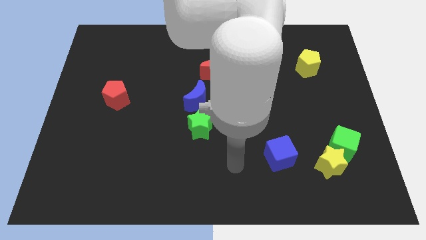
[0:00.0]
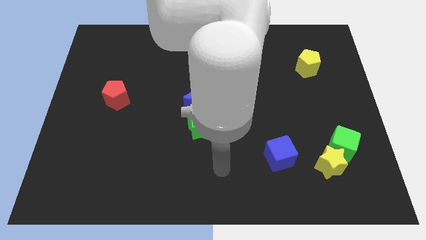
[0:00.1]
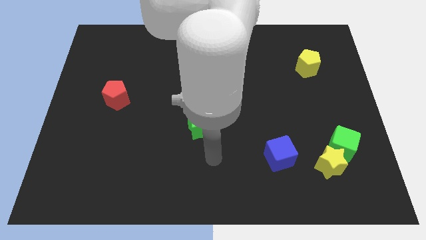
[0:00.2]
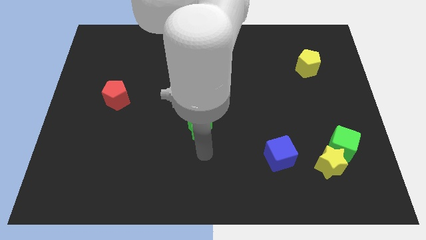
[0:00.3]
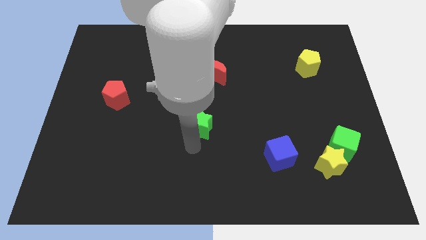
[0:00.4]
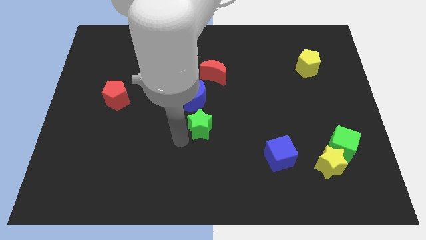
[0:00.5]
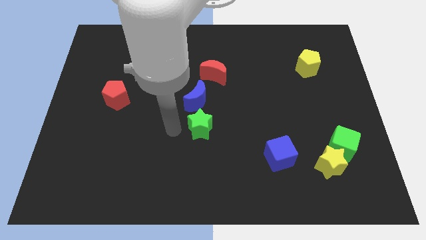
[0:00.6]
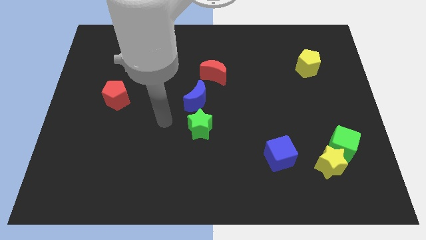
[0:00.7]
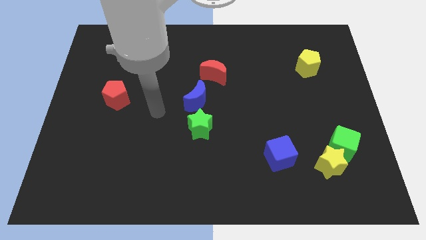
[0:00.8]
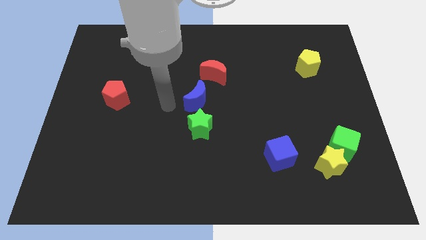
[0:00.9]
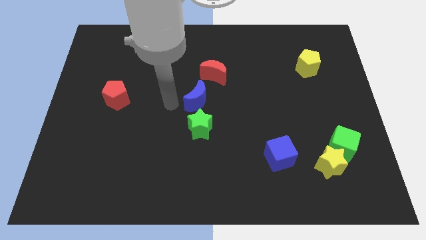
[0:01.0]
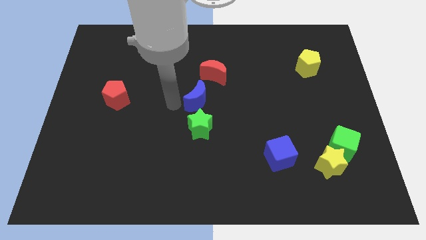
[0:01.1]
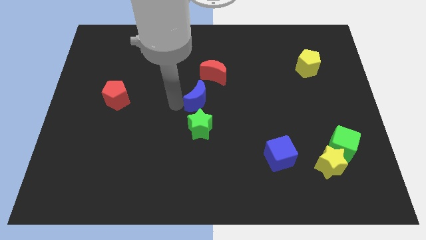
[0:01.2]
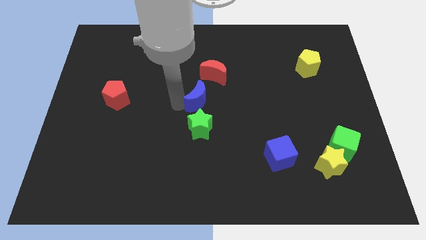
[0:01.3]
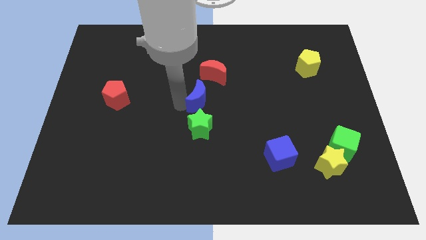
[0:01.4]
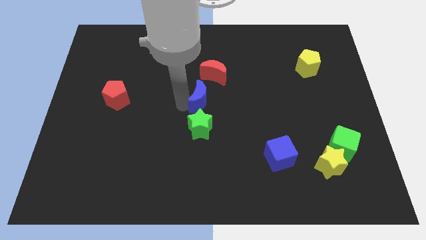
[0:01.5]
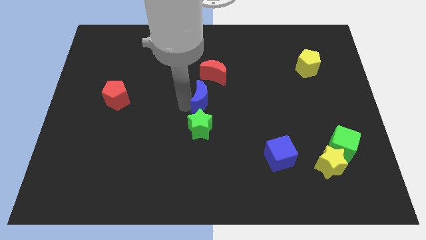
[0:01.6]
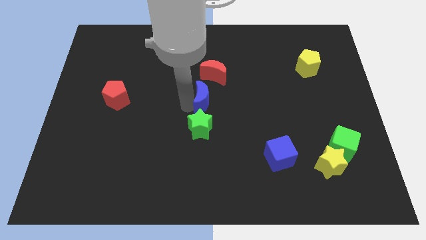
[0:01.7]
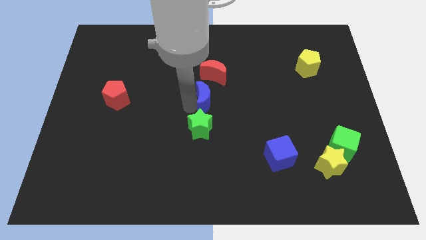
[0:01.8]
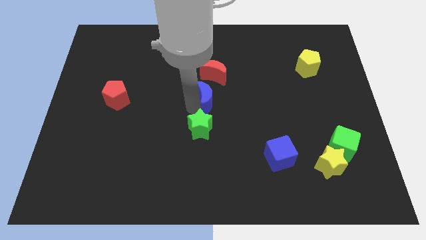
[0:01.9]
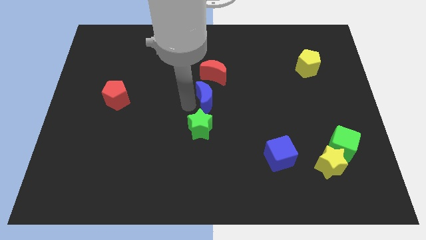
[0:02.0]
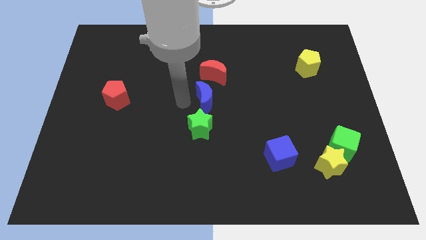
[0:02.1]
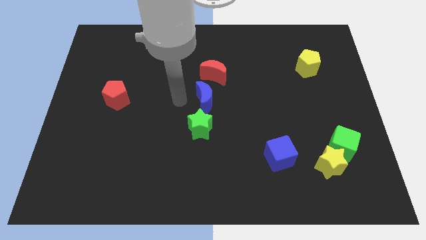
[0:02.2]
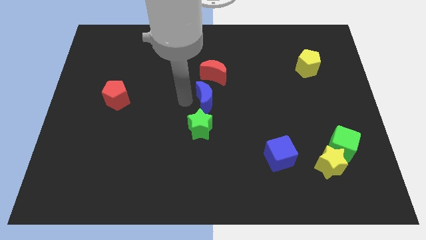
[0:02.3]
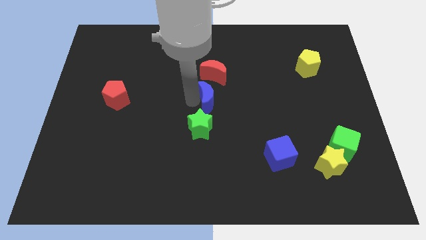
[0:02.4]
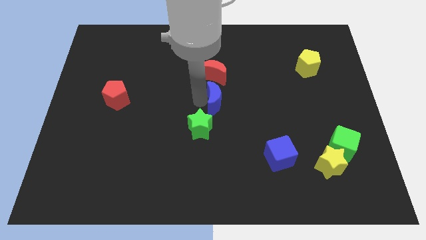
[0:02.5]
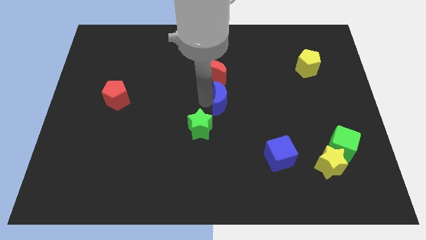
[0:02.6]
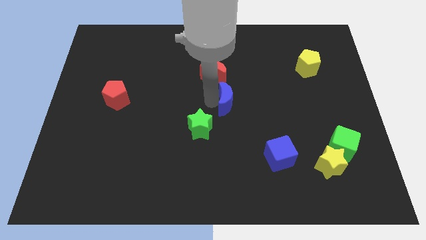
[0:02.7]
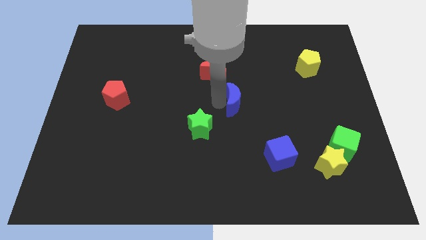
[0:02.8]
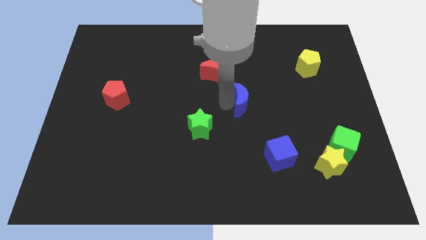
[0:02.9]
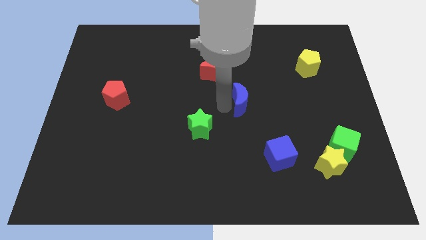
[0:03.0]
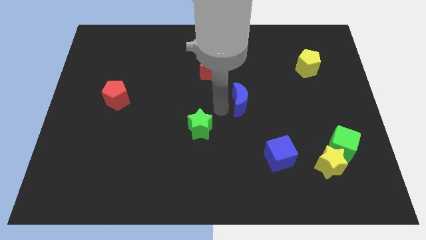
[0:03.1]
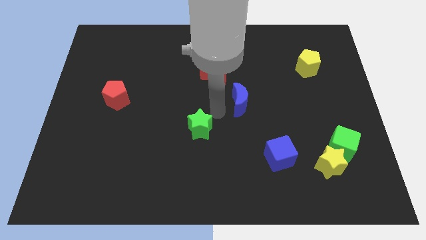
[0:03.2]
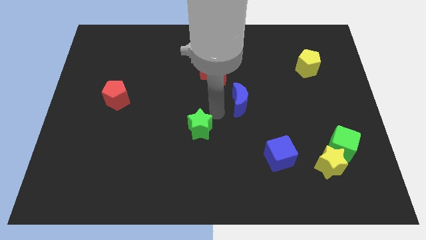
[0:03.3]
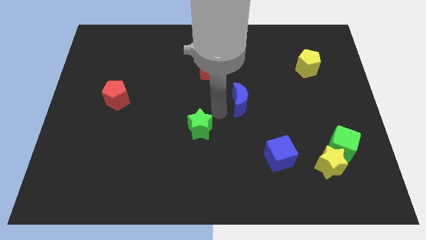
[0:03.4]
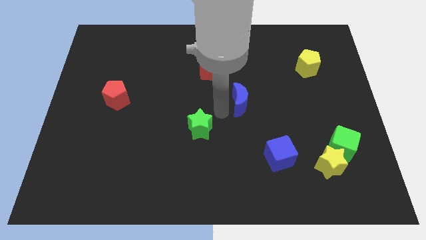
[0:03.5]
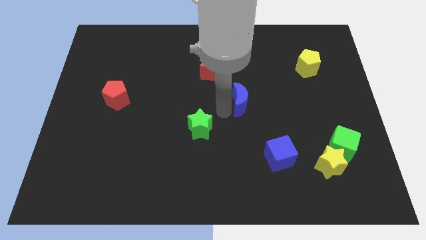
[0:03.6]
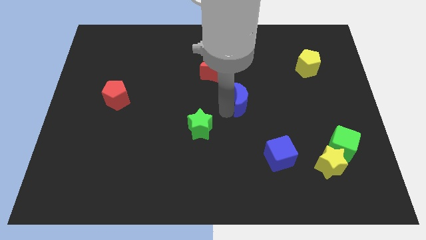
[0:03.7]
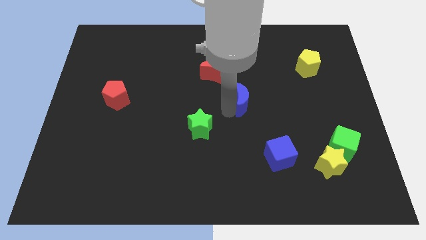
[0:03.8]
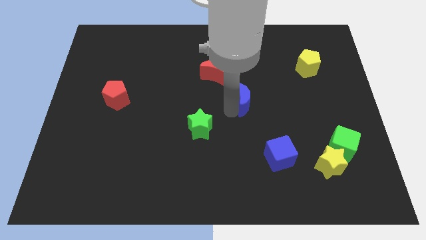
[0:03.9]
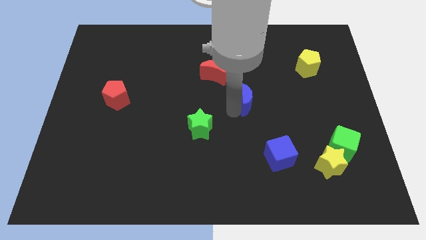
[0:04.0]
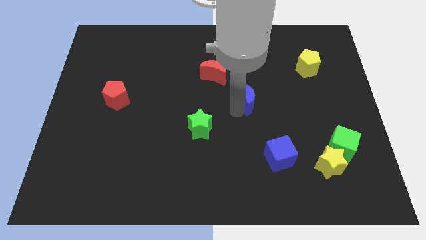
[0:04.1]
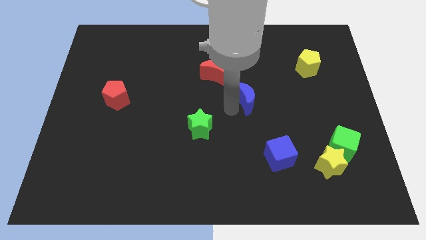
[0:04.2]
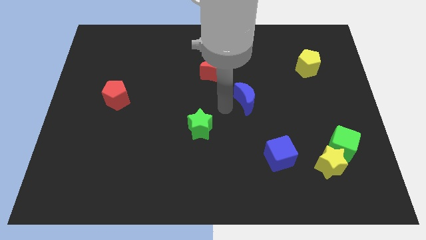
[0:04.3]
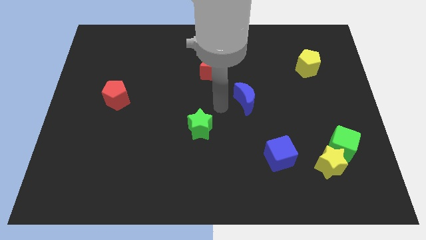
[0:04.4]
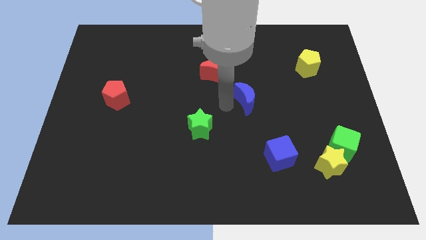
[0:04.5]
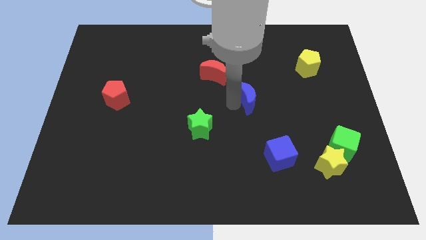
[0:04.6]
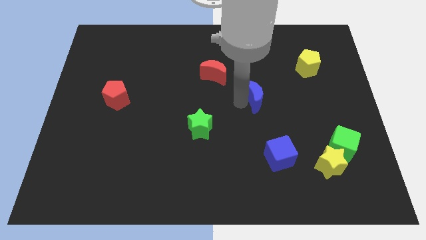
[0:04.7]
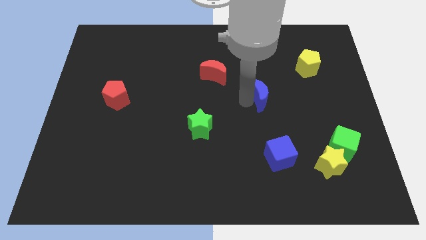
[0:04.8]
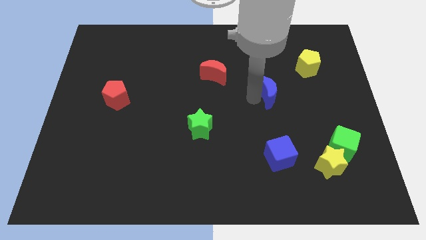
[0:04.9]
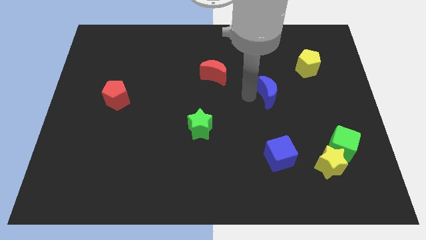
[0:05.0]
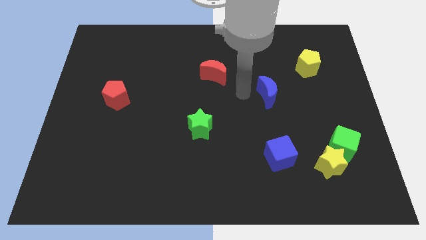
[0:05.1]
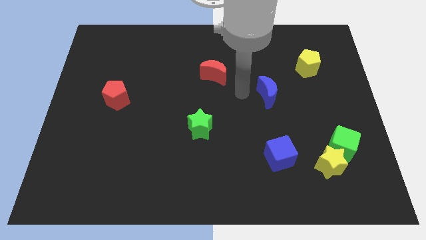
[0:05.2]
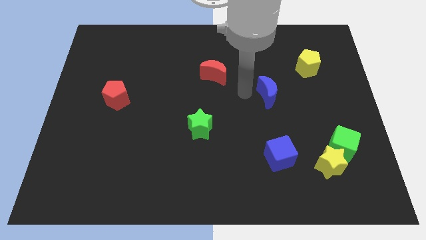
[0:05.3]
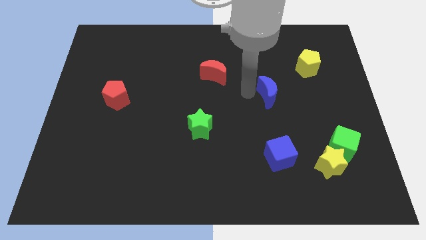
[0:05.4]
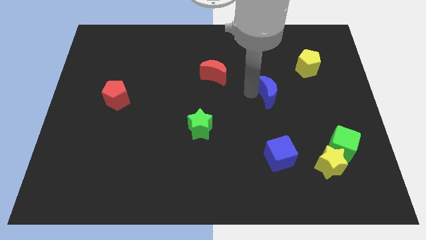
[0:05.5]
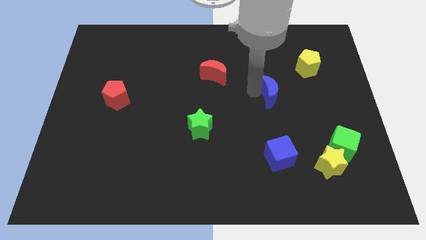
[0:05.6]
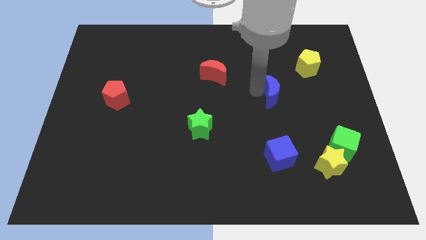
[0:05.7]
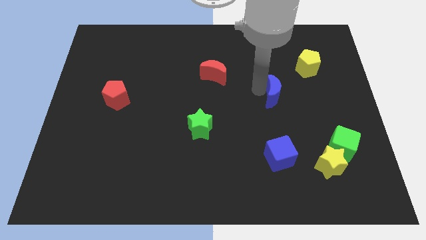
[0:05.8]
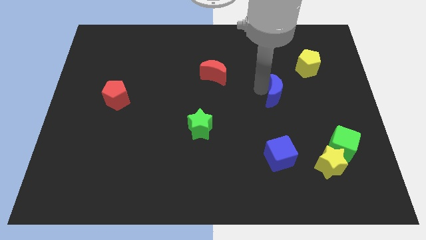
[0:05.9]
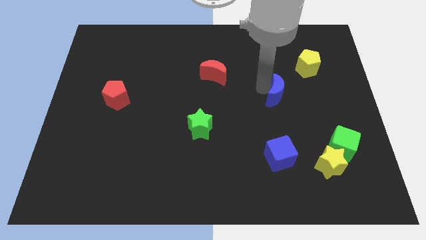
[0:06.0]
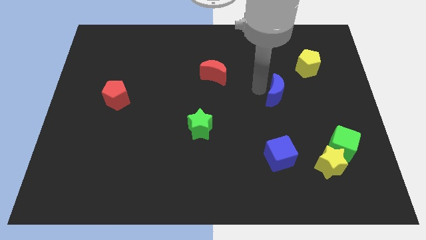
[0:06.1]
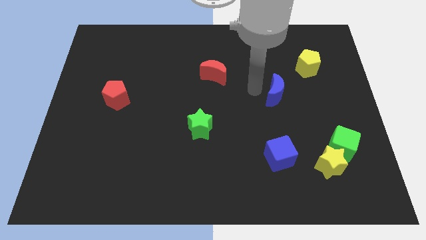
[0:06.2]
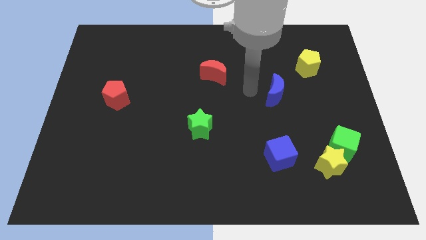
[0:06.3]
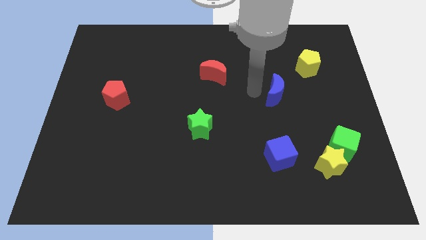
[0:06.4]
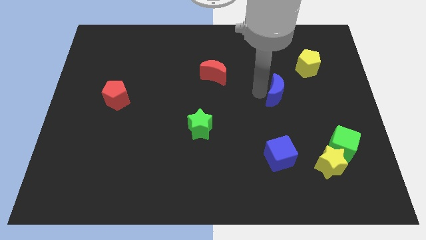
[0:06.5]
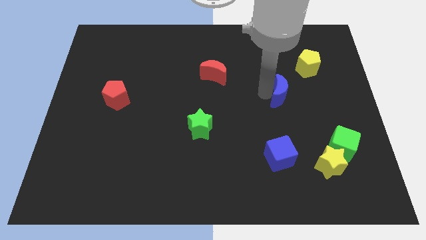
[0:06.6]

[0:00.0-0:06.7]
push the blue moon right

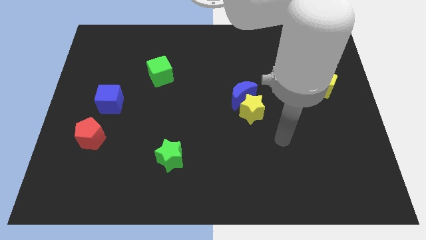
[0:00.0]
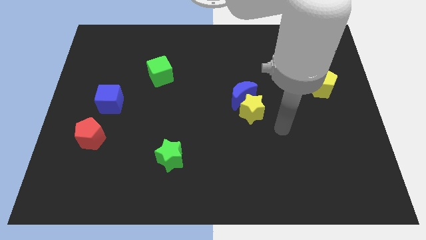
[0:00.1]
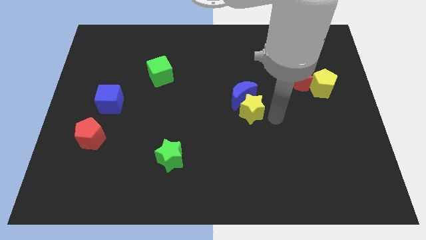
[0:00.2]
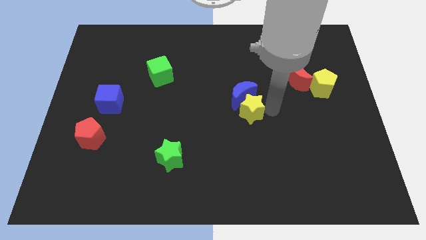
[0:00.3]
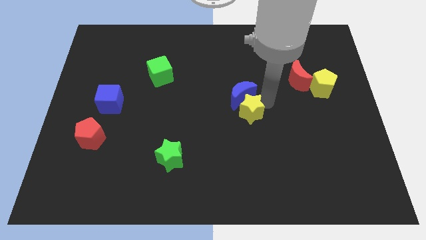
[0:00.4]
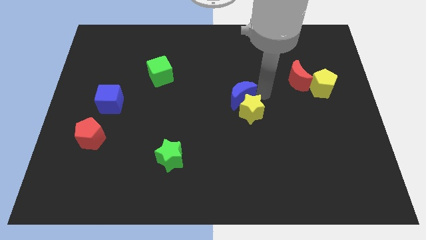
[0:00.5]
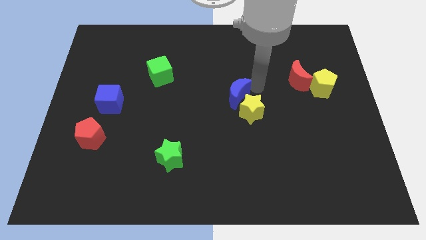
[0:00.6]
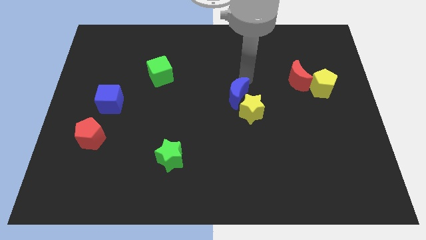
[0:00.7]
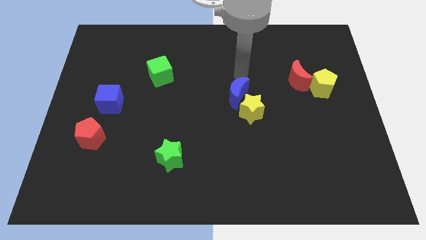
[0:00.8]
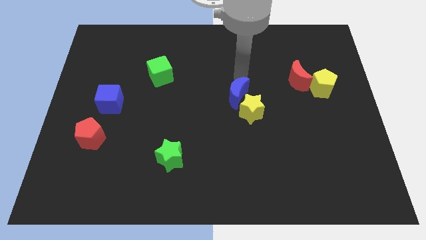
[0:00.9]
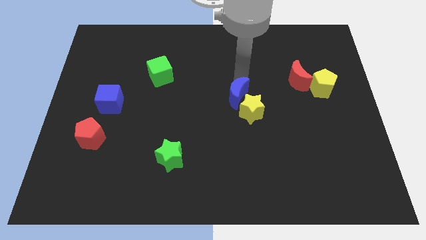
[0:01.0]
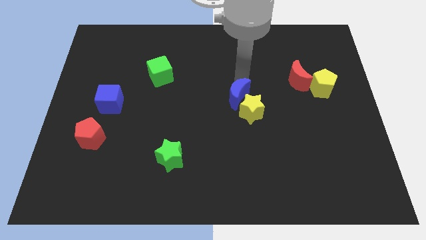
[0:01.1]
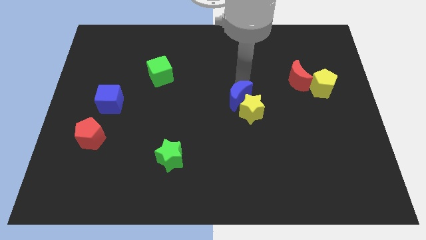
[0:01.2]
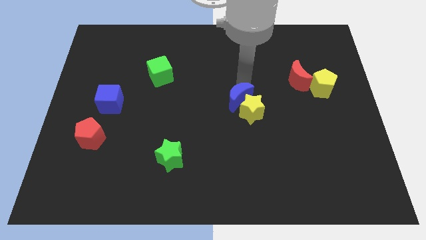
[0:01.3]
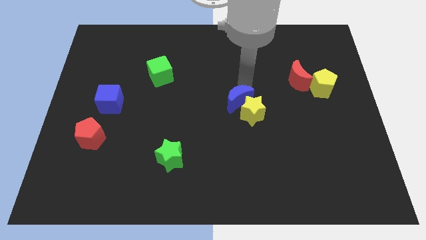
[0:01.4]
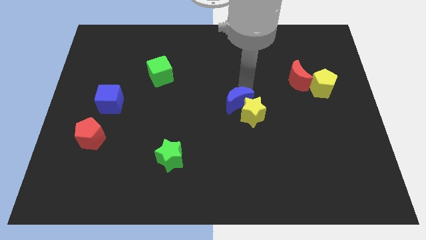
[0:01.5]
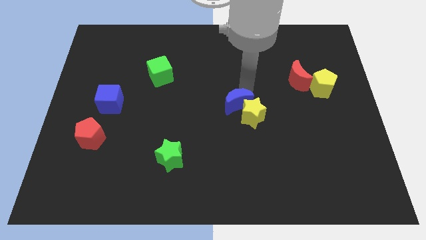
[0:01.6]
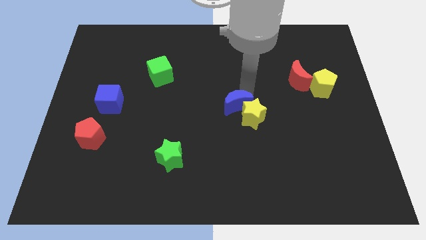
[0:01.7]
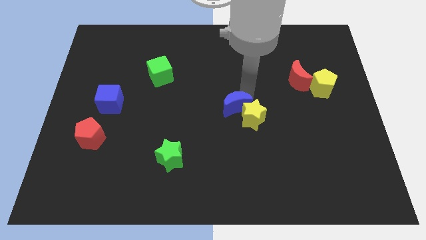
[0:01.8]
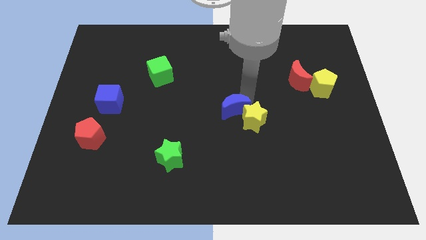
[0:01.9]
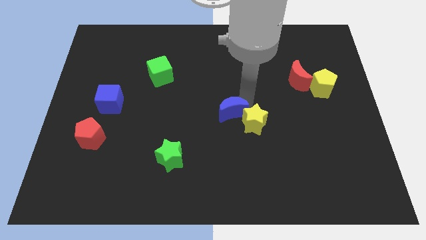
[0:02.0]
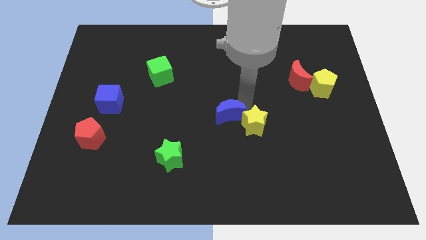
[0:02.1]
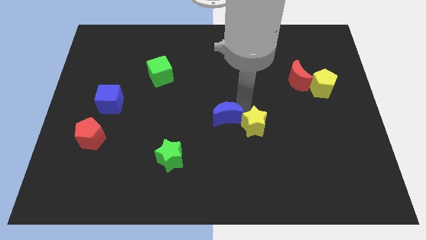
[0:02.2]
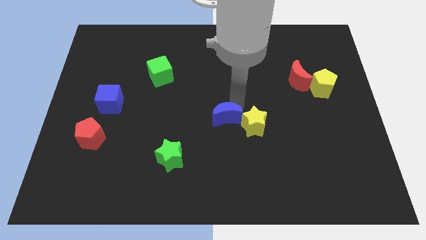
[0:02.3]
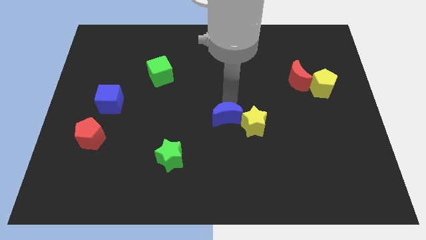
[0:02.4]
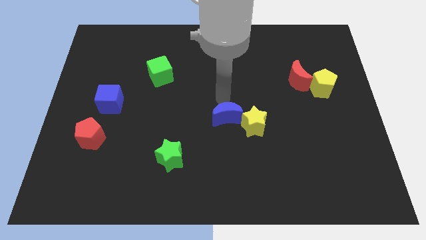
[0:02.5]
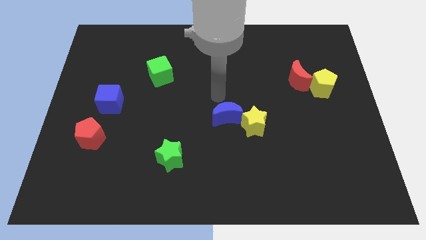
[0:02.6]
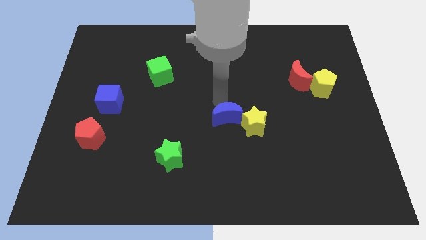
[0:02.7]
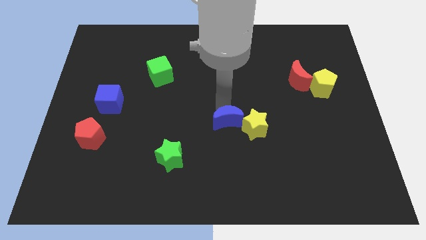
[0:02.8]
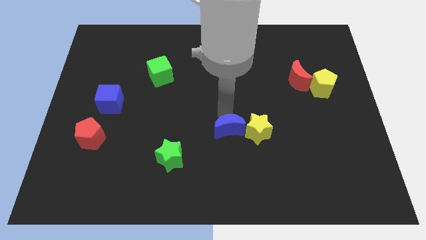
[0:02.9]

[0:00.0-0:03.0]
push the blue moon a little bit downwards
